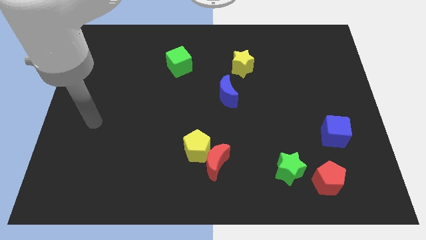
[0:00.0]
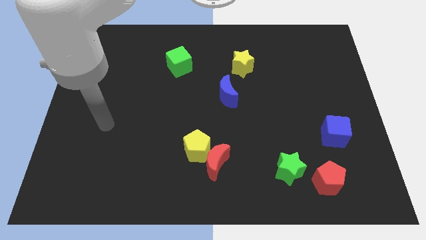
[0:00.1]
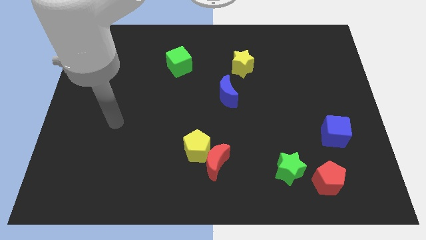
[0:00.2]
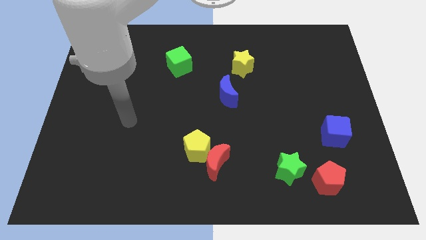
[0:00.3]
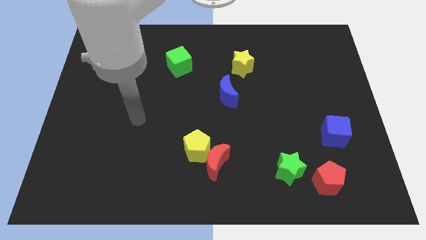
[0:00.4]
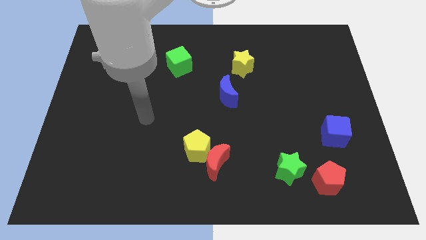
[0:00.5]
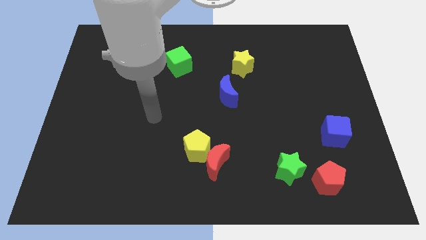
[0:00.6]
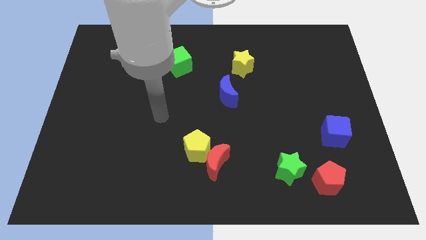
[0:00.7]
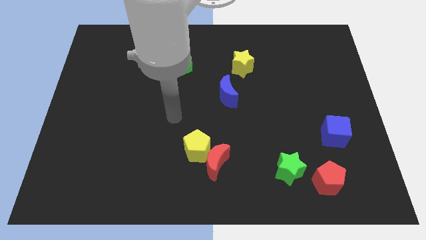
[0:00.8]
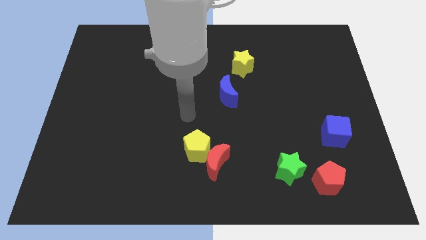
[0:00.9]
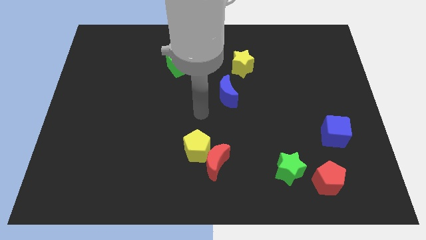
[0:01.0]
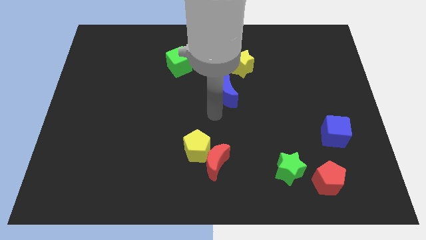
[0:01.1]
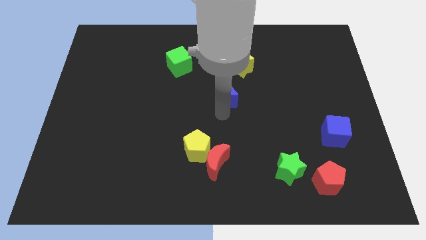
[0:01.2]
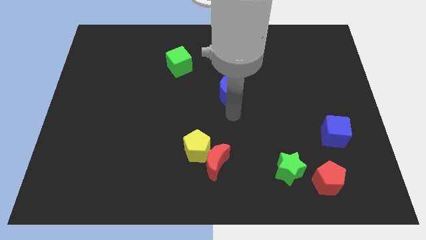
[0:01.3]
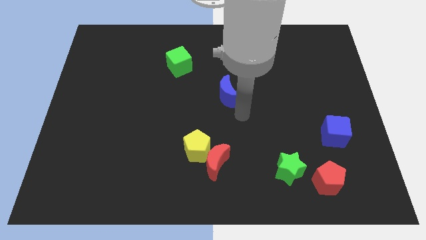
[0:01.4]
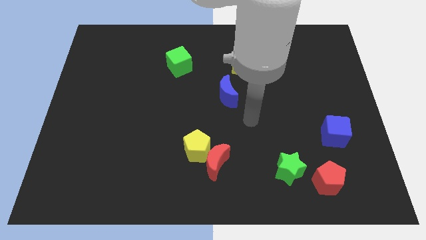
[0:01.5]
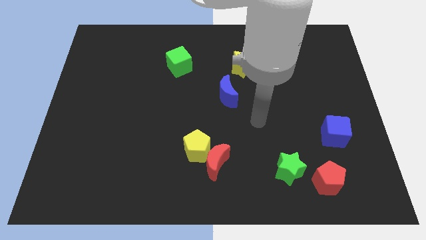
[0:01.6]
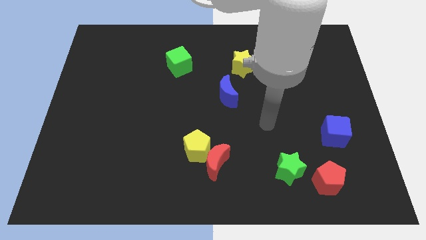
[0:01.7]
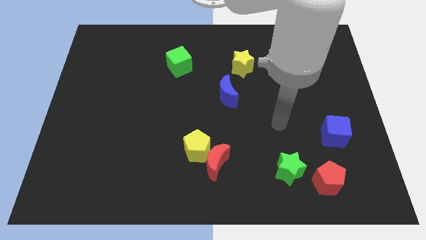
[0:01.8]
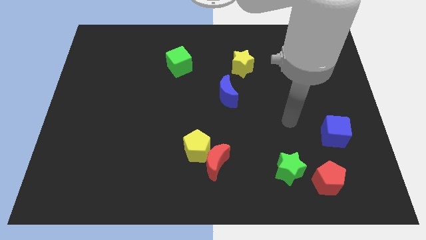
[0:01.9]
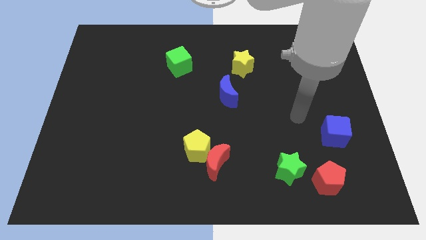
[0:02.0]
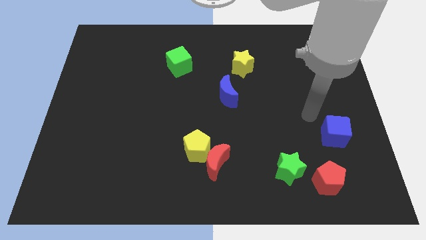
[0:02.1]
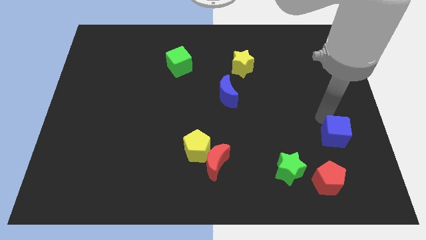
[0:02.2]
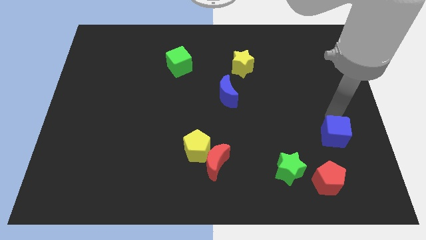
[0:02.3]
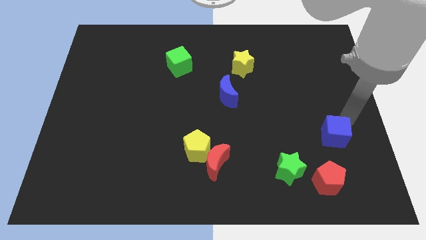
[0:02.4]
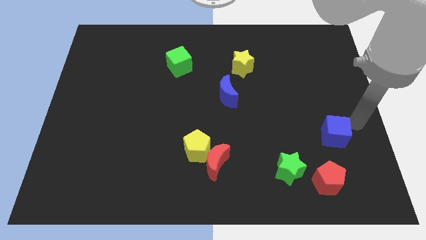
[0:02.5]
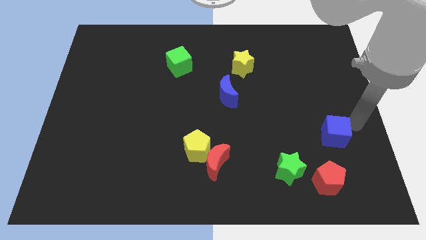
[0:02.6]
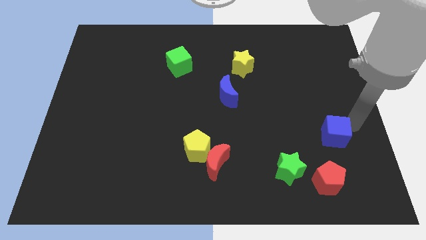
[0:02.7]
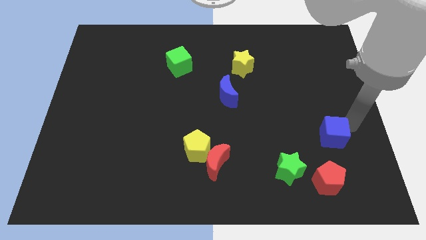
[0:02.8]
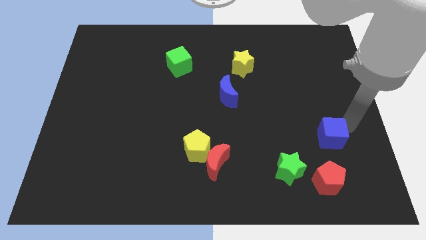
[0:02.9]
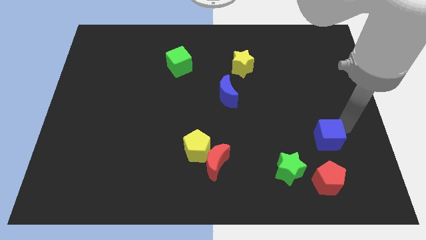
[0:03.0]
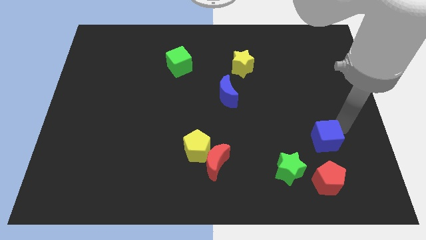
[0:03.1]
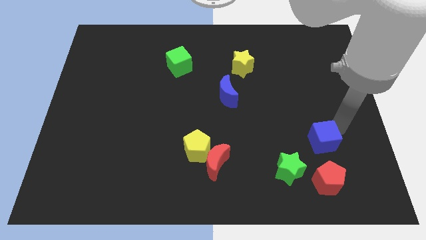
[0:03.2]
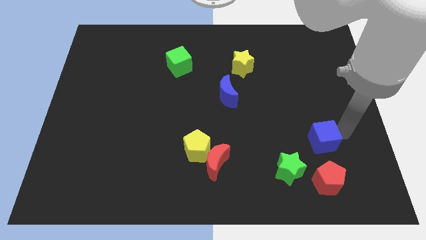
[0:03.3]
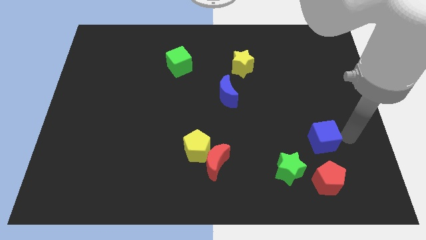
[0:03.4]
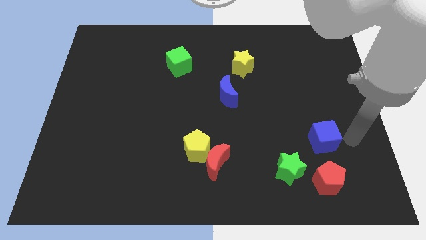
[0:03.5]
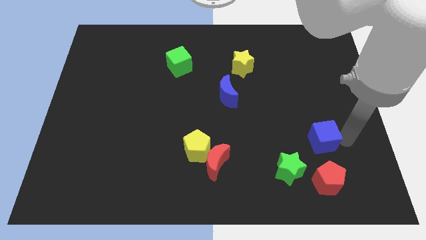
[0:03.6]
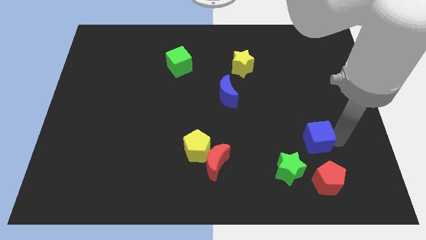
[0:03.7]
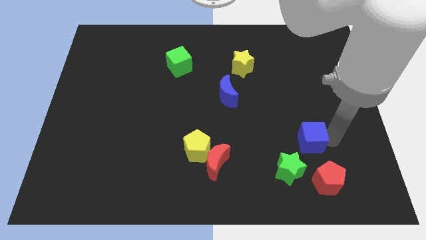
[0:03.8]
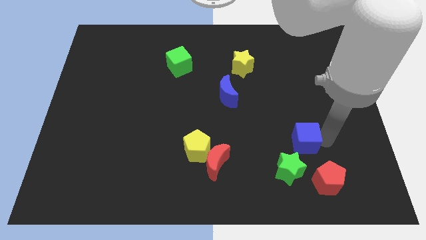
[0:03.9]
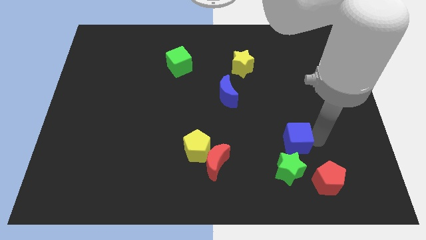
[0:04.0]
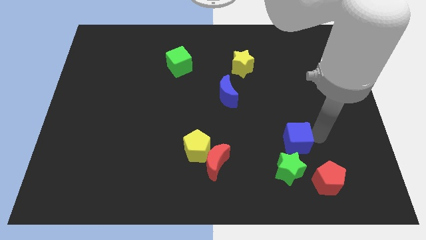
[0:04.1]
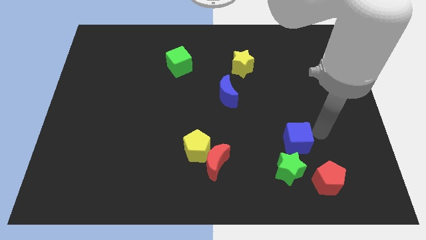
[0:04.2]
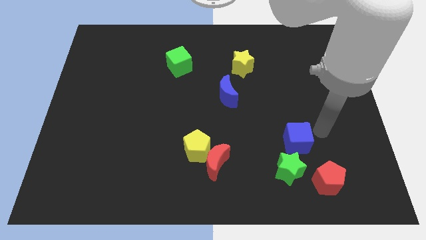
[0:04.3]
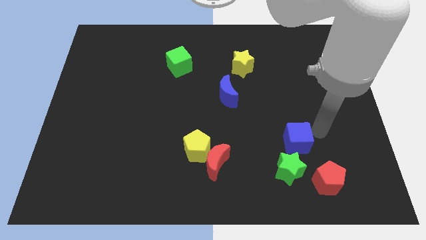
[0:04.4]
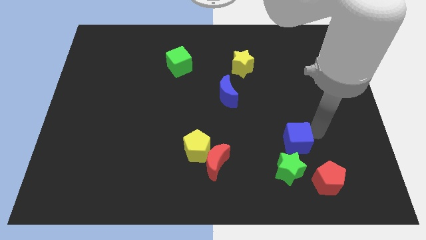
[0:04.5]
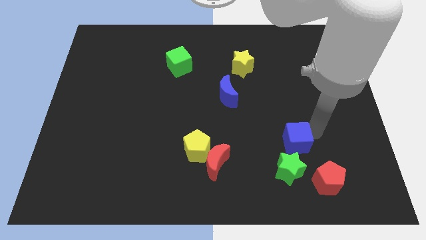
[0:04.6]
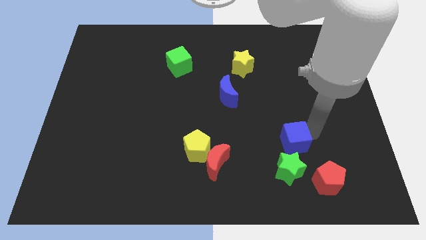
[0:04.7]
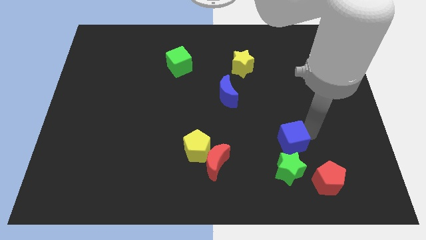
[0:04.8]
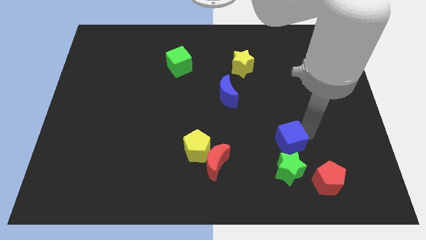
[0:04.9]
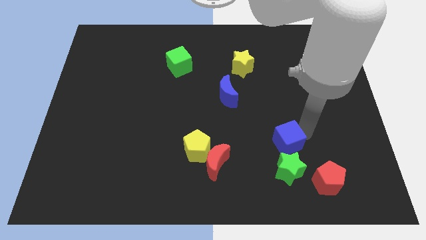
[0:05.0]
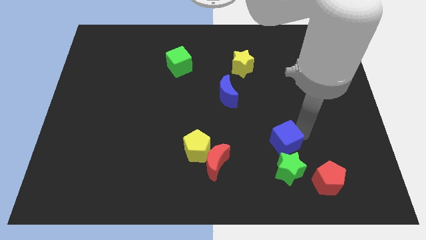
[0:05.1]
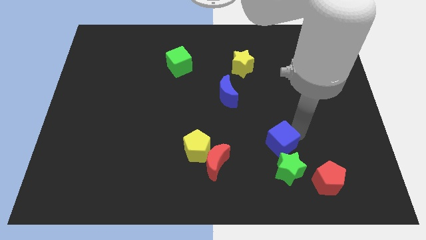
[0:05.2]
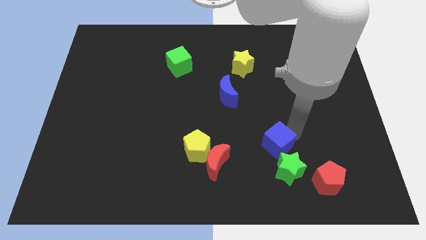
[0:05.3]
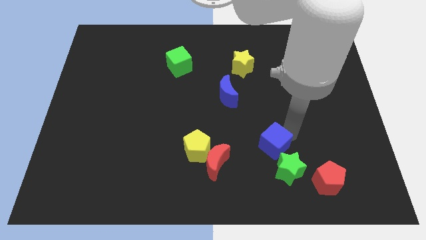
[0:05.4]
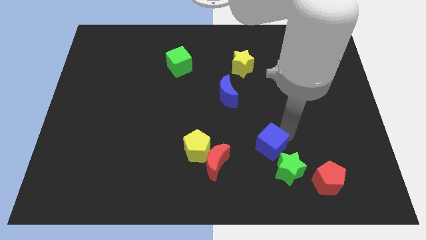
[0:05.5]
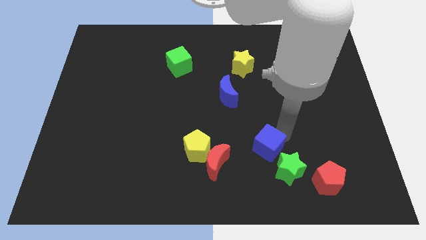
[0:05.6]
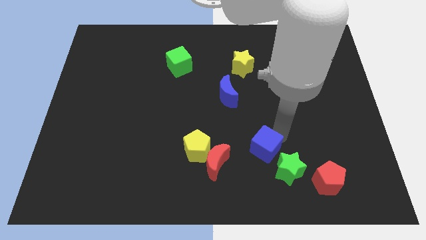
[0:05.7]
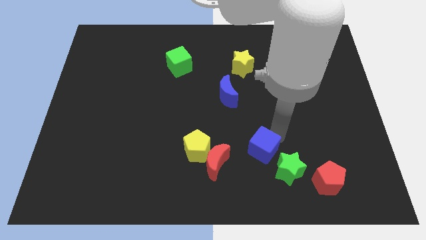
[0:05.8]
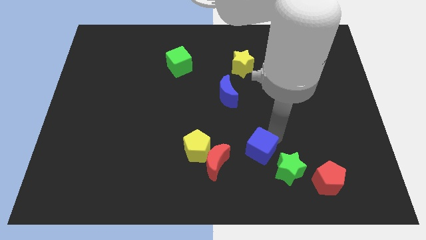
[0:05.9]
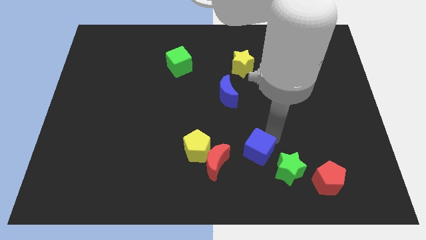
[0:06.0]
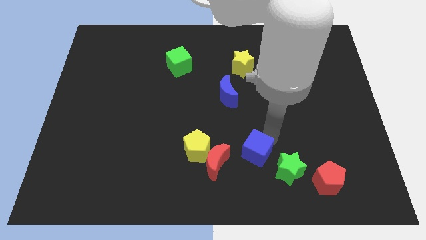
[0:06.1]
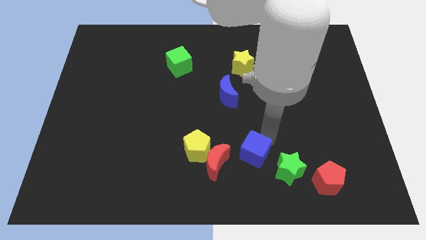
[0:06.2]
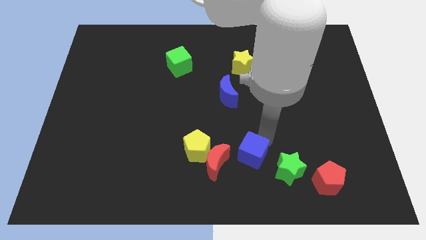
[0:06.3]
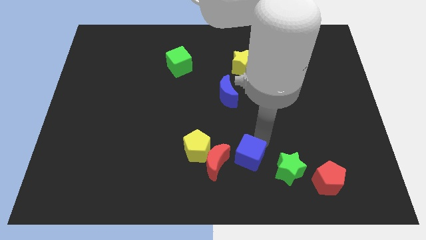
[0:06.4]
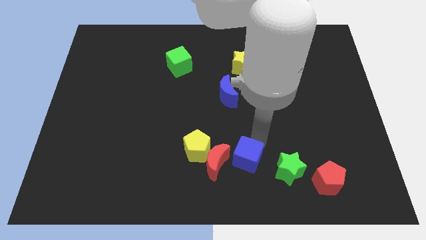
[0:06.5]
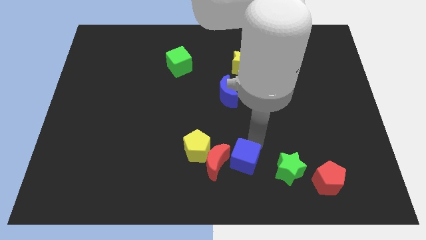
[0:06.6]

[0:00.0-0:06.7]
push the blue cube to the bottom side
